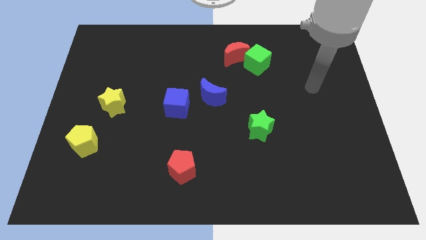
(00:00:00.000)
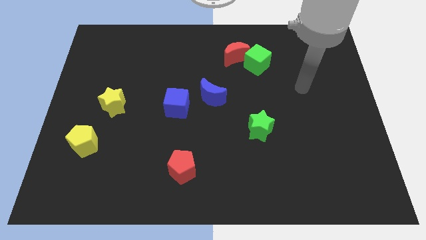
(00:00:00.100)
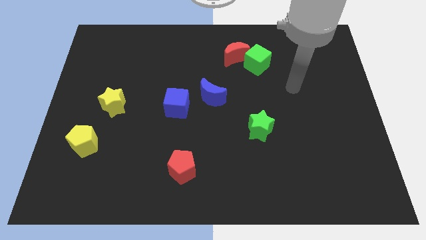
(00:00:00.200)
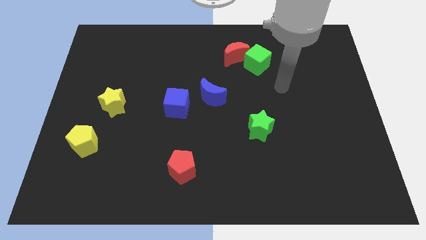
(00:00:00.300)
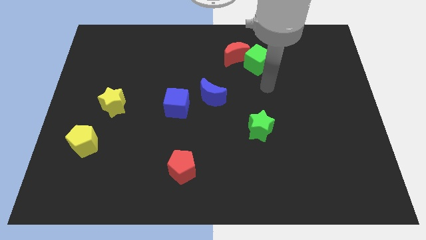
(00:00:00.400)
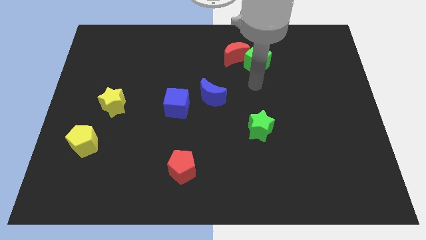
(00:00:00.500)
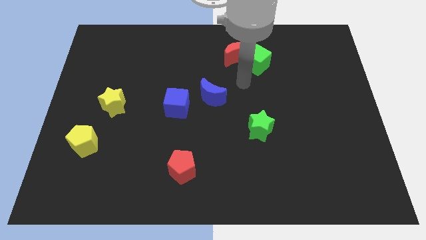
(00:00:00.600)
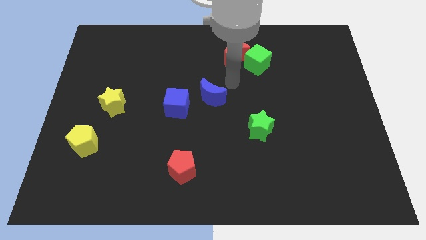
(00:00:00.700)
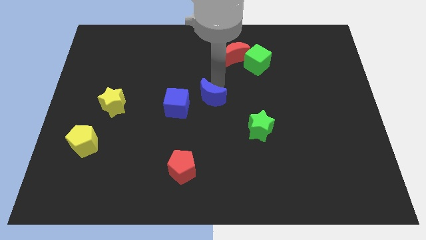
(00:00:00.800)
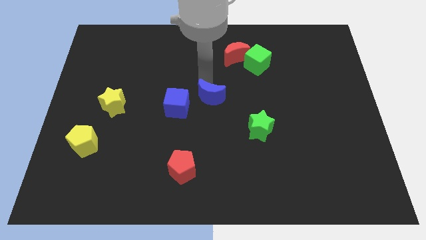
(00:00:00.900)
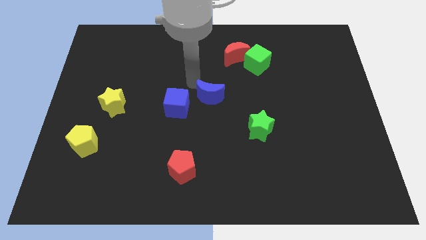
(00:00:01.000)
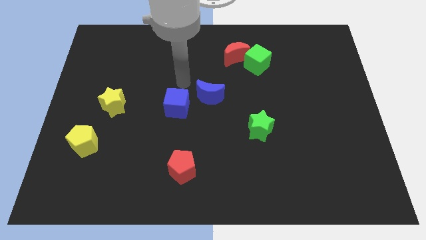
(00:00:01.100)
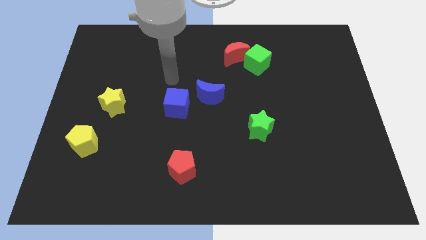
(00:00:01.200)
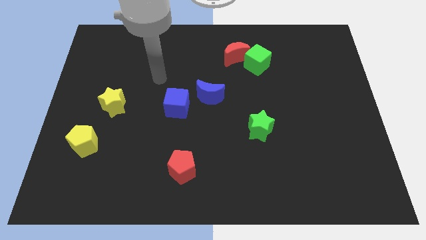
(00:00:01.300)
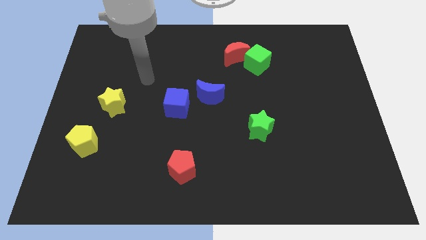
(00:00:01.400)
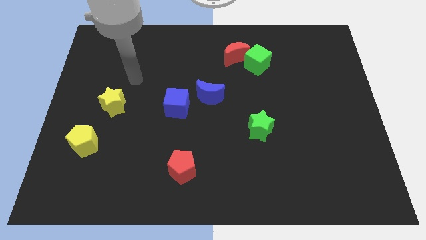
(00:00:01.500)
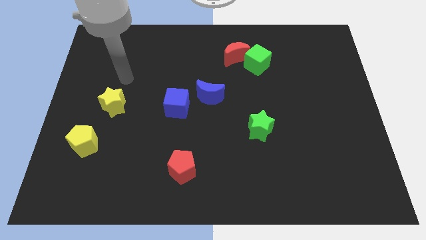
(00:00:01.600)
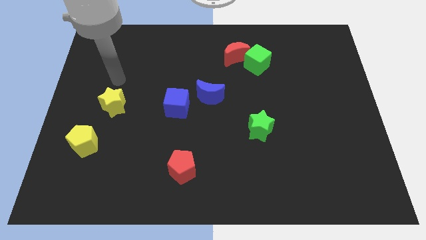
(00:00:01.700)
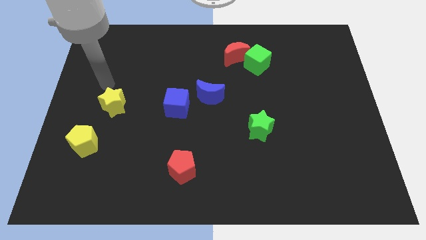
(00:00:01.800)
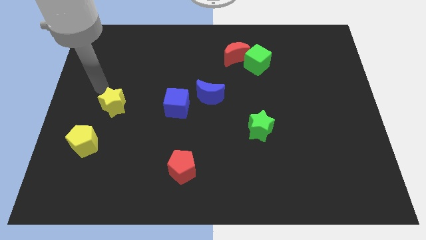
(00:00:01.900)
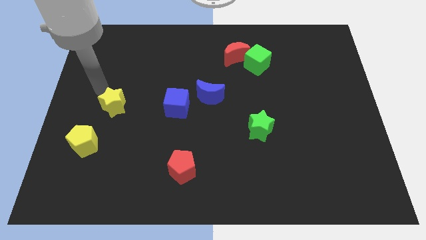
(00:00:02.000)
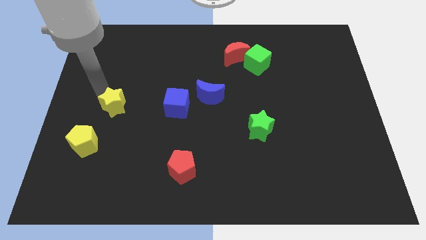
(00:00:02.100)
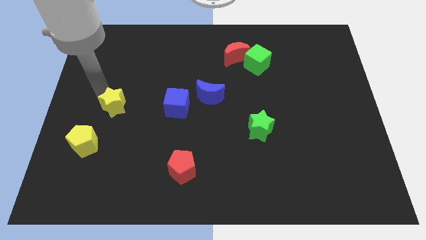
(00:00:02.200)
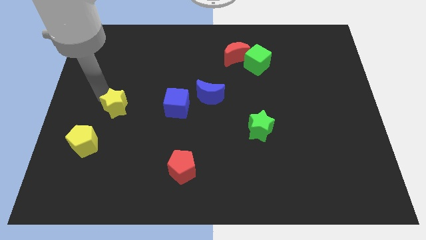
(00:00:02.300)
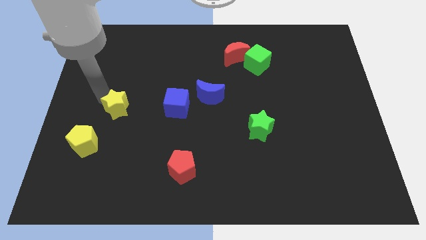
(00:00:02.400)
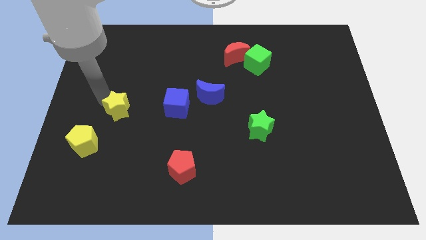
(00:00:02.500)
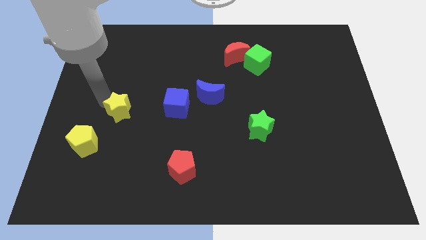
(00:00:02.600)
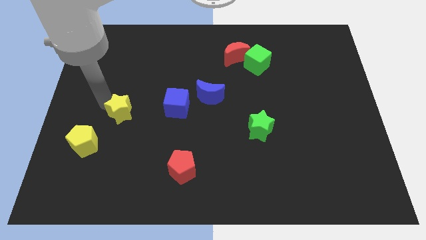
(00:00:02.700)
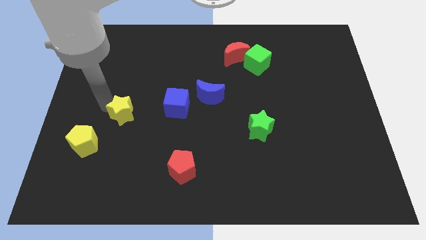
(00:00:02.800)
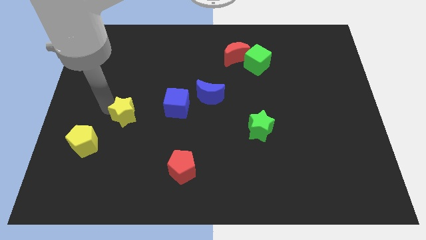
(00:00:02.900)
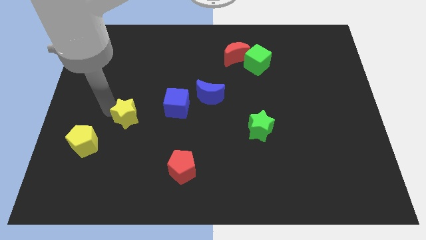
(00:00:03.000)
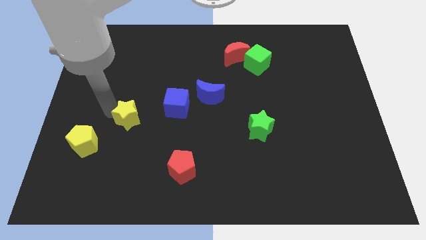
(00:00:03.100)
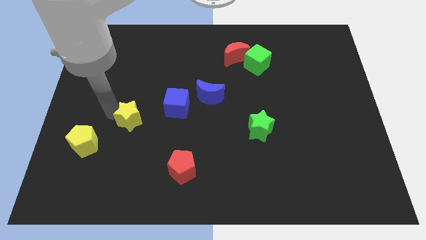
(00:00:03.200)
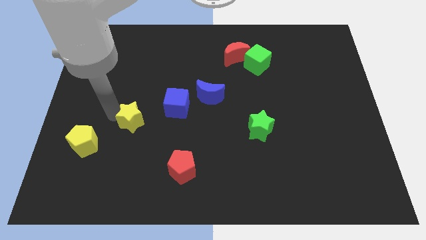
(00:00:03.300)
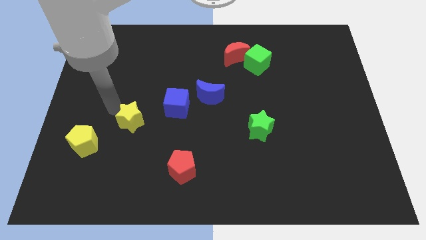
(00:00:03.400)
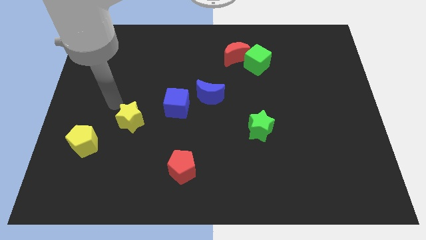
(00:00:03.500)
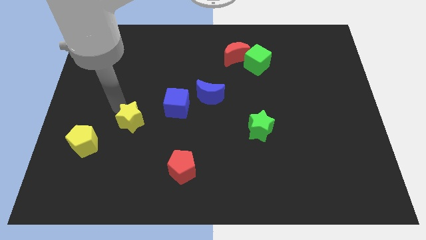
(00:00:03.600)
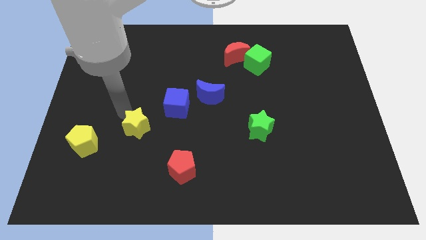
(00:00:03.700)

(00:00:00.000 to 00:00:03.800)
move the yellow star down and then to the right slightly

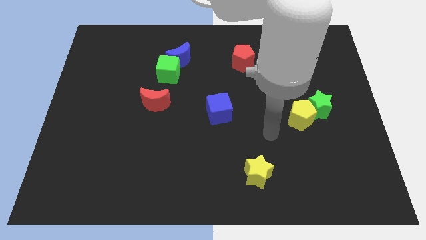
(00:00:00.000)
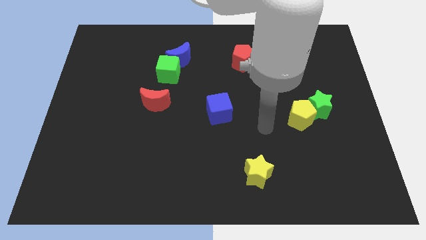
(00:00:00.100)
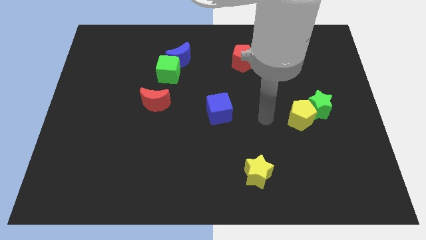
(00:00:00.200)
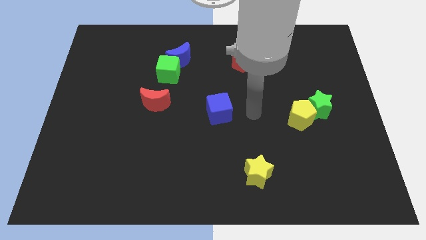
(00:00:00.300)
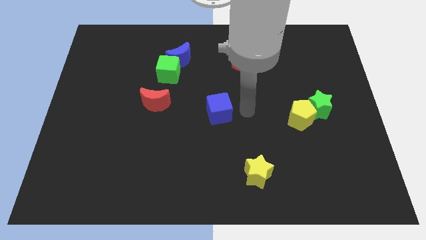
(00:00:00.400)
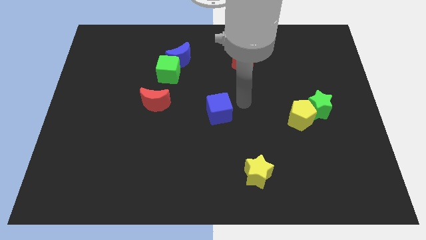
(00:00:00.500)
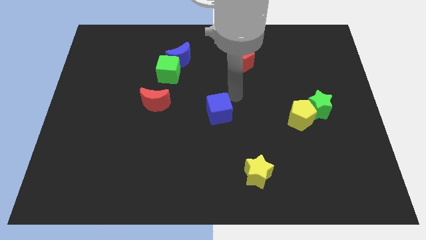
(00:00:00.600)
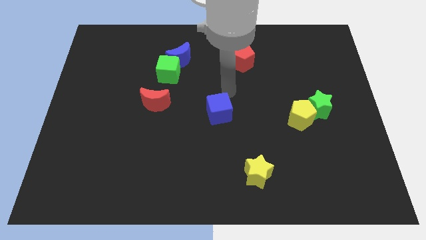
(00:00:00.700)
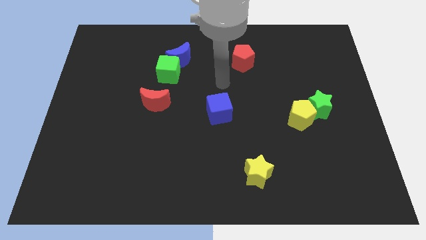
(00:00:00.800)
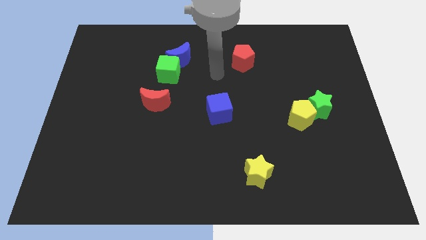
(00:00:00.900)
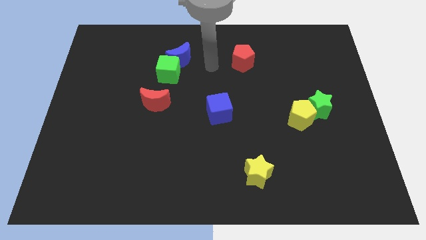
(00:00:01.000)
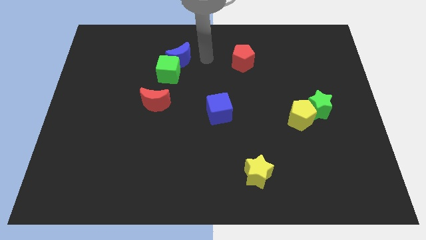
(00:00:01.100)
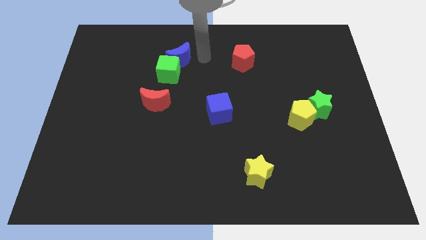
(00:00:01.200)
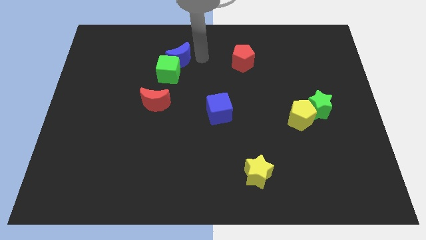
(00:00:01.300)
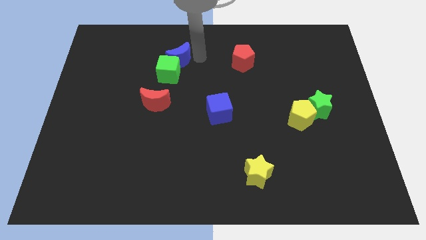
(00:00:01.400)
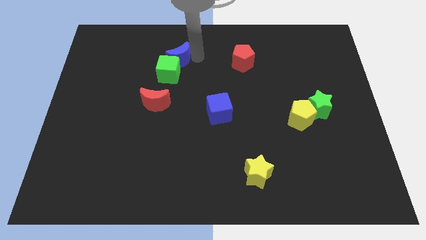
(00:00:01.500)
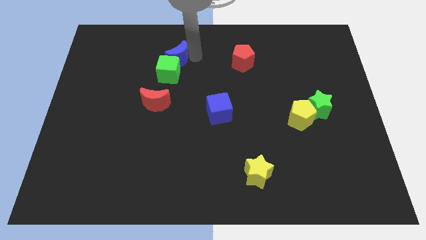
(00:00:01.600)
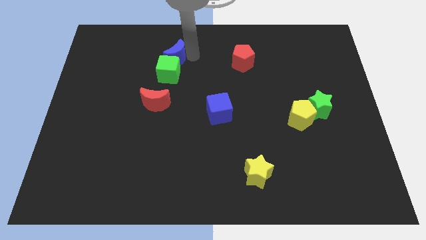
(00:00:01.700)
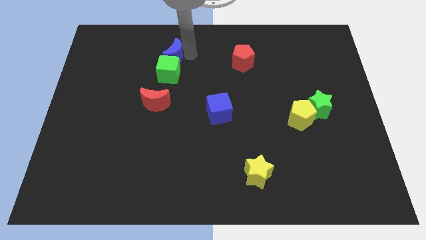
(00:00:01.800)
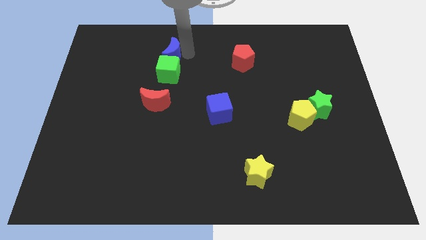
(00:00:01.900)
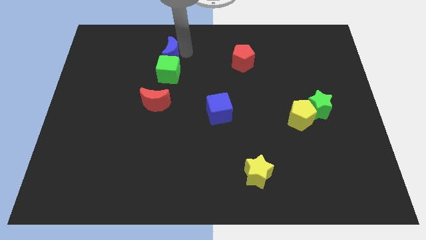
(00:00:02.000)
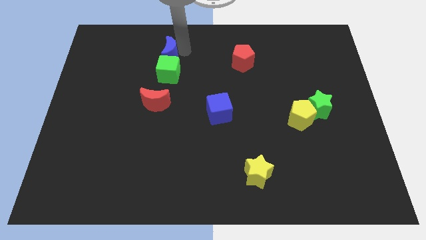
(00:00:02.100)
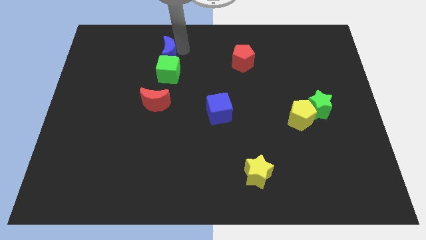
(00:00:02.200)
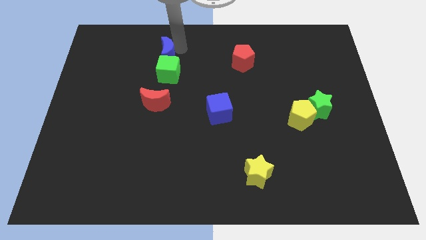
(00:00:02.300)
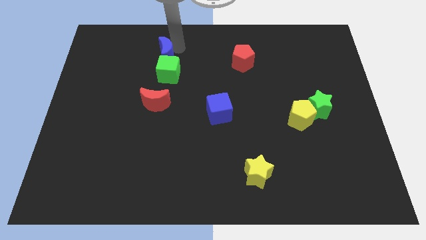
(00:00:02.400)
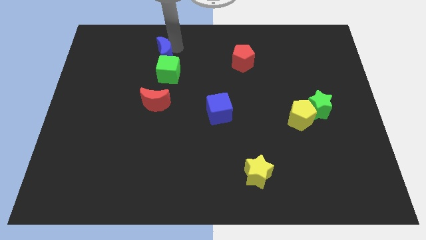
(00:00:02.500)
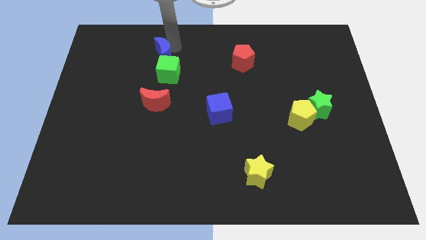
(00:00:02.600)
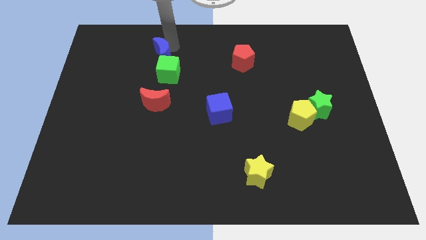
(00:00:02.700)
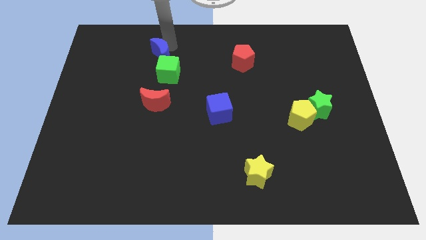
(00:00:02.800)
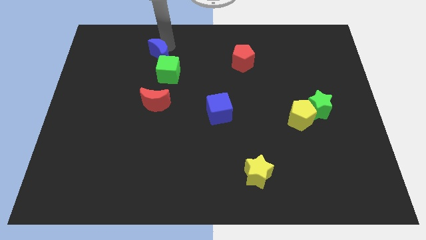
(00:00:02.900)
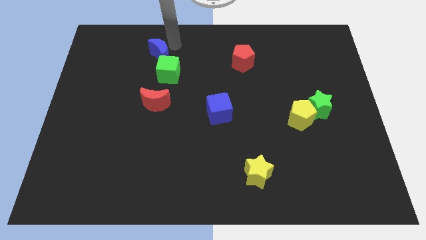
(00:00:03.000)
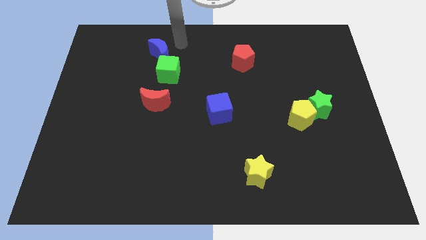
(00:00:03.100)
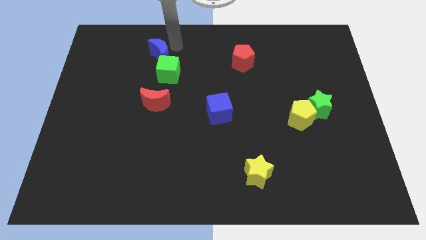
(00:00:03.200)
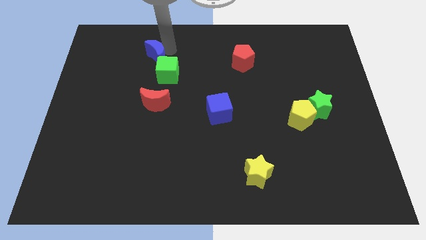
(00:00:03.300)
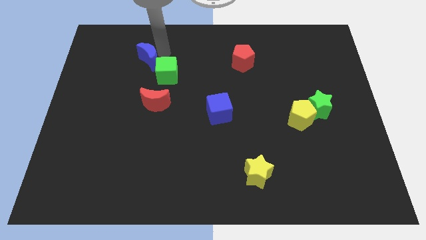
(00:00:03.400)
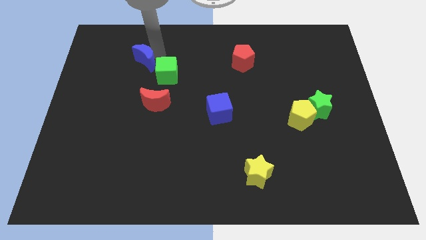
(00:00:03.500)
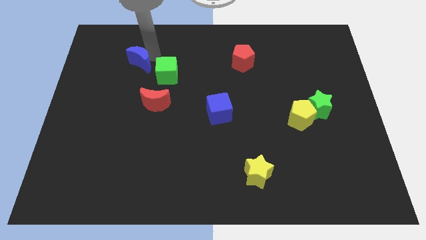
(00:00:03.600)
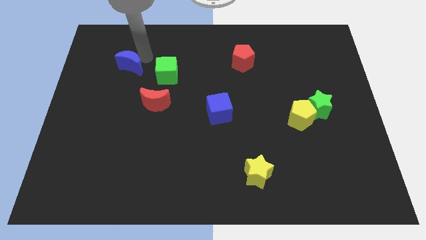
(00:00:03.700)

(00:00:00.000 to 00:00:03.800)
slightly move the blue moon downwards and then to the left
